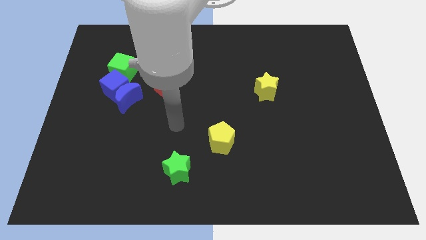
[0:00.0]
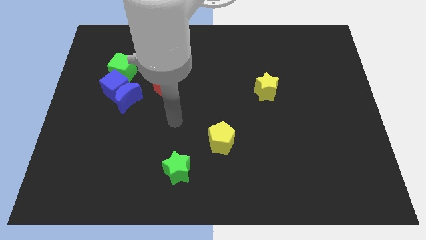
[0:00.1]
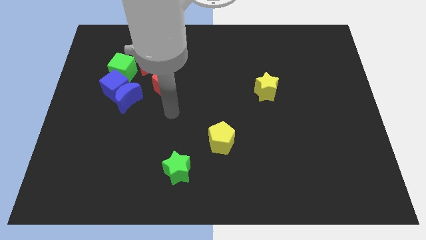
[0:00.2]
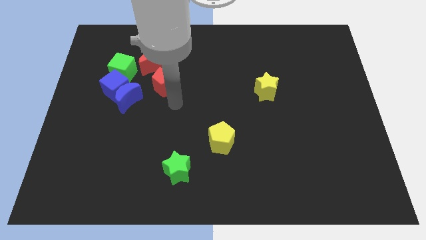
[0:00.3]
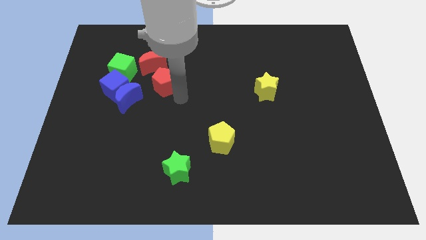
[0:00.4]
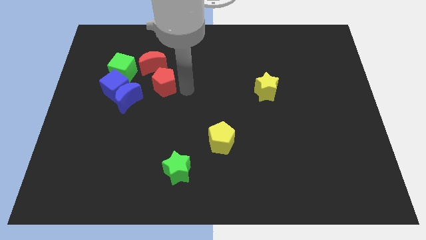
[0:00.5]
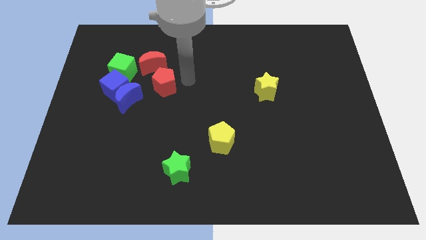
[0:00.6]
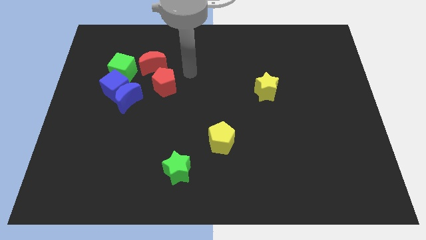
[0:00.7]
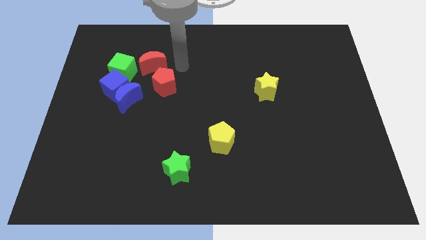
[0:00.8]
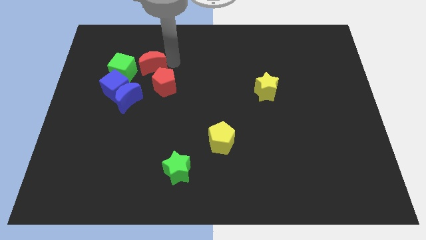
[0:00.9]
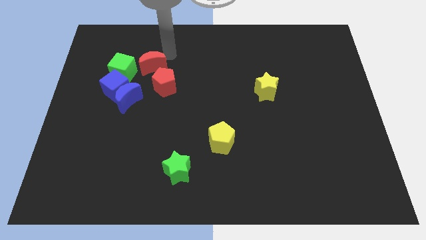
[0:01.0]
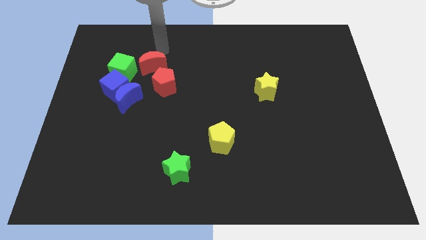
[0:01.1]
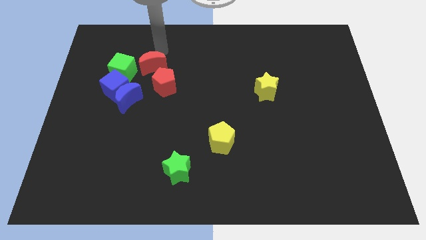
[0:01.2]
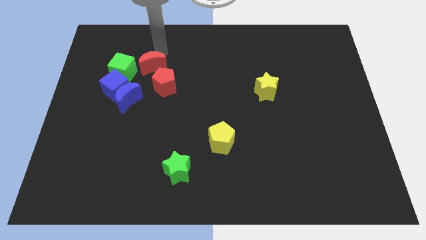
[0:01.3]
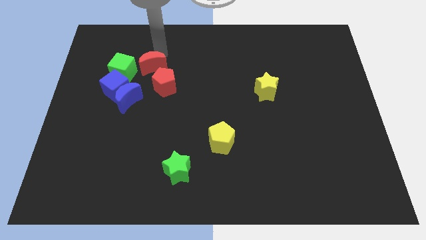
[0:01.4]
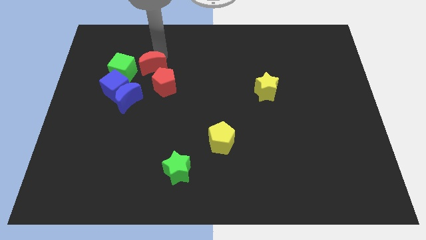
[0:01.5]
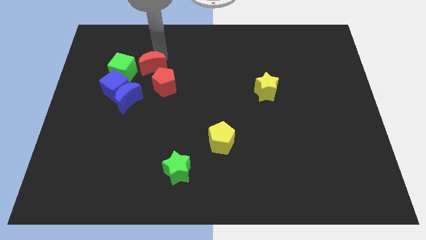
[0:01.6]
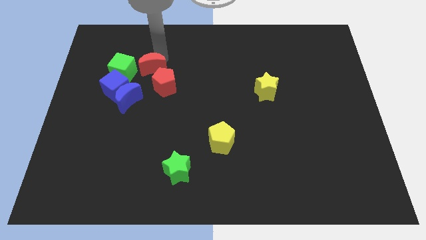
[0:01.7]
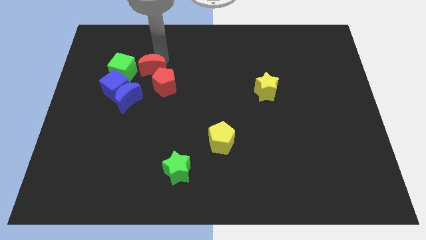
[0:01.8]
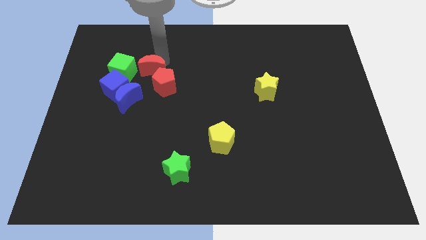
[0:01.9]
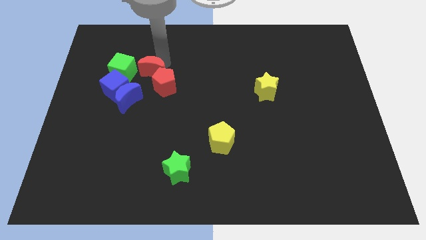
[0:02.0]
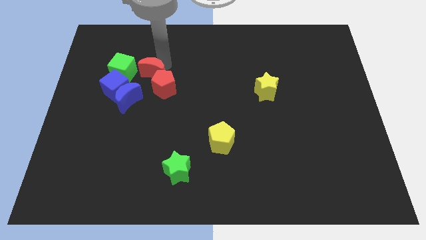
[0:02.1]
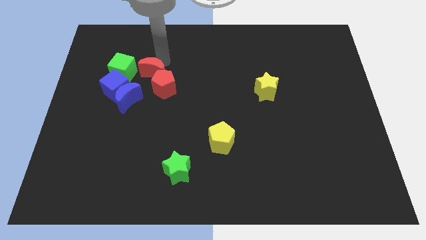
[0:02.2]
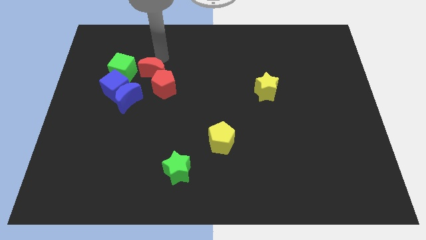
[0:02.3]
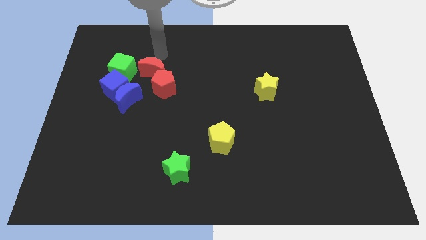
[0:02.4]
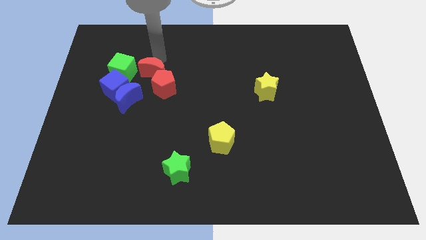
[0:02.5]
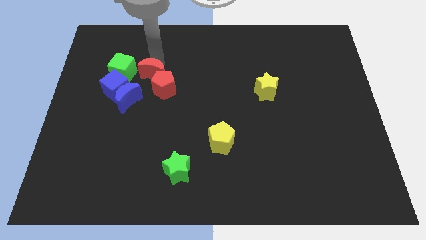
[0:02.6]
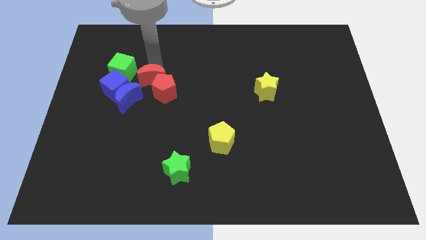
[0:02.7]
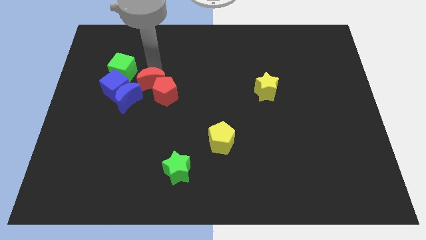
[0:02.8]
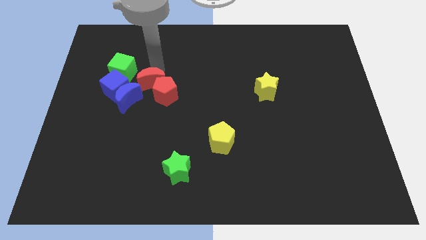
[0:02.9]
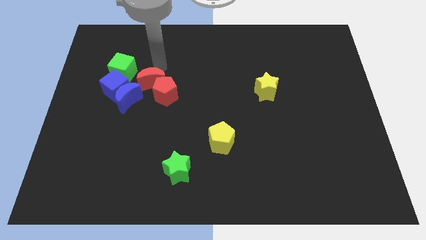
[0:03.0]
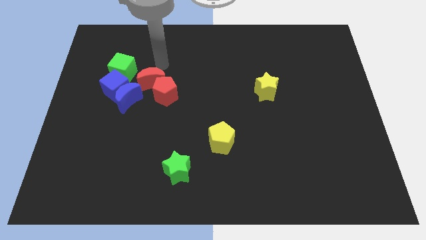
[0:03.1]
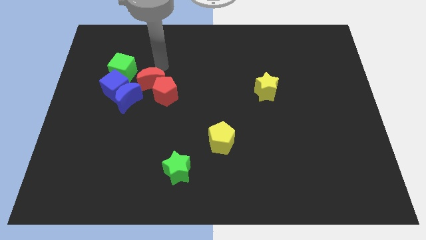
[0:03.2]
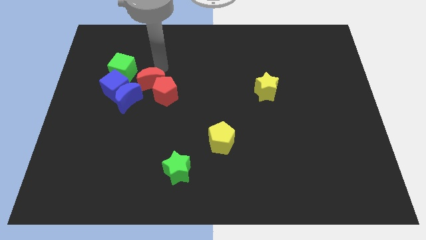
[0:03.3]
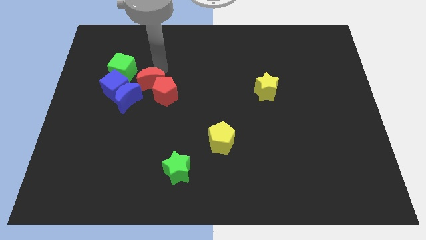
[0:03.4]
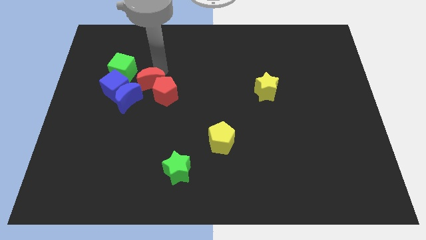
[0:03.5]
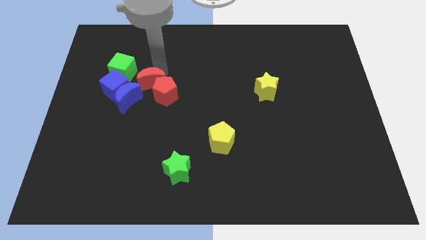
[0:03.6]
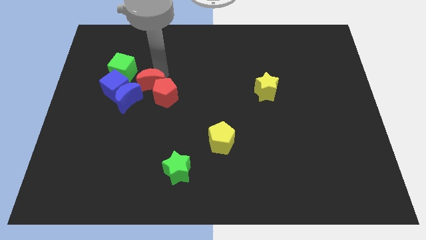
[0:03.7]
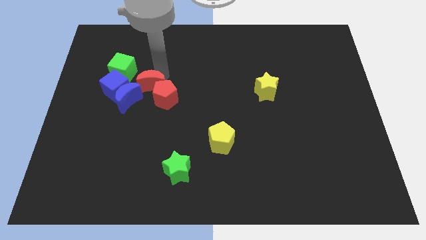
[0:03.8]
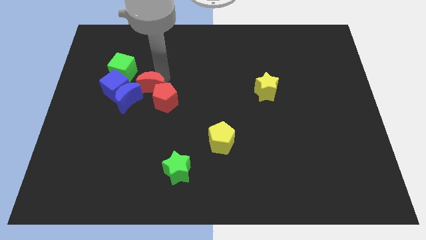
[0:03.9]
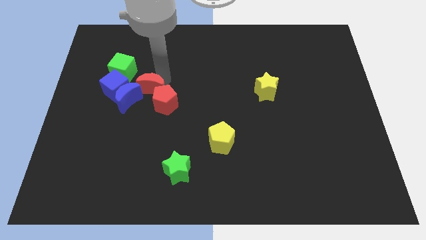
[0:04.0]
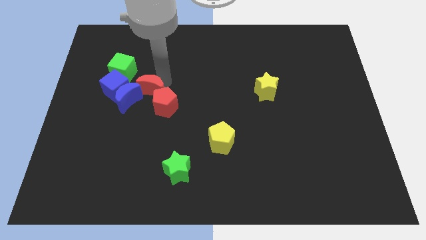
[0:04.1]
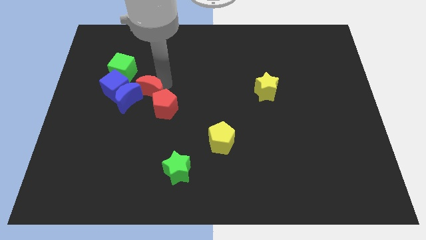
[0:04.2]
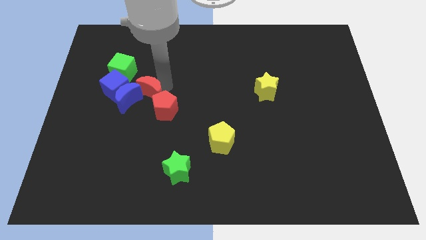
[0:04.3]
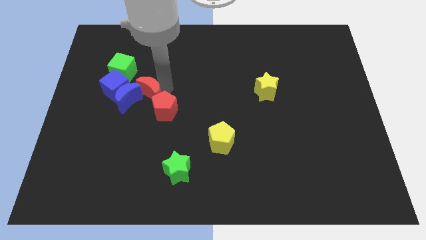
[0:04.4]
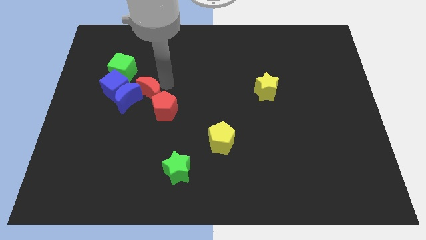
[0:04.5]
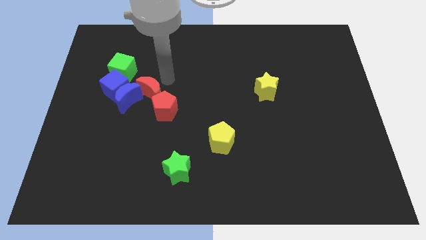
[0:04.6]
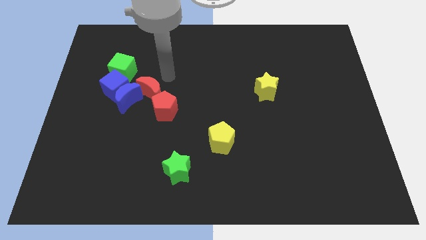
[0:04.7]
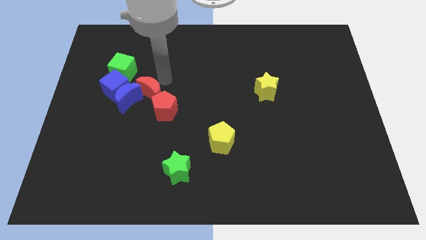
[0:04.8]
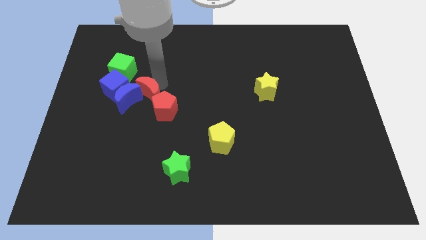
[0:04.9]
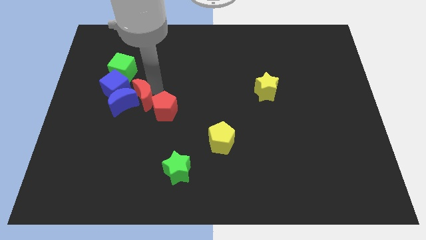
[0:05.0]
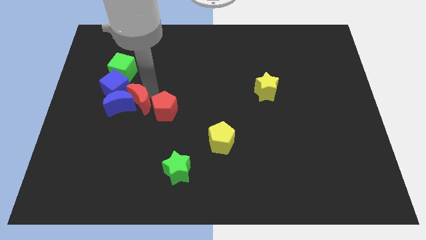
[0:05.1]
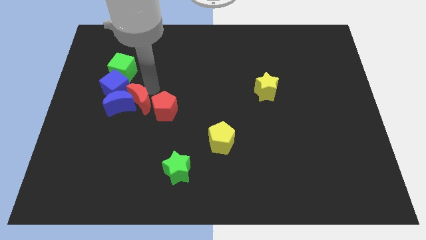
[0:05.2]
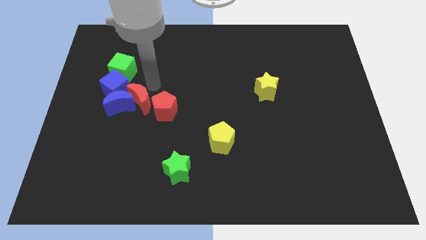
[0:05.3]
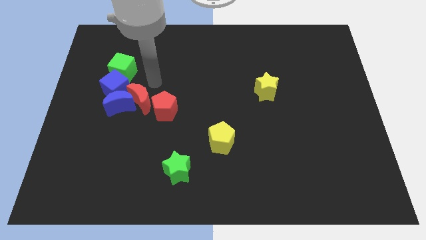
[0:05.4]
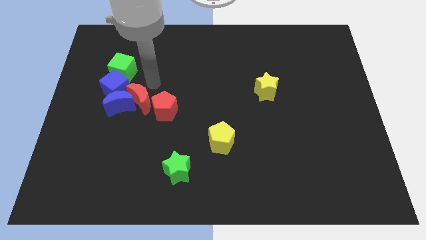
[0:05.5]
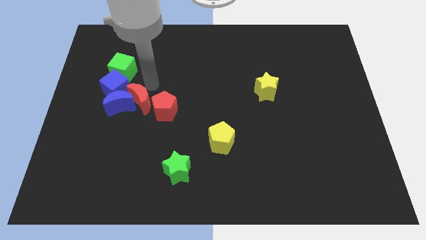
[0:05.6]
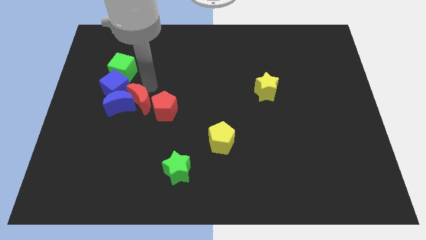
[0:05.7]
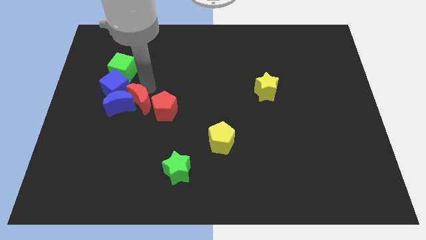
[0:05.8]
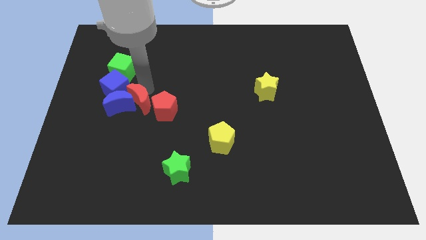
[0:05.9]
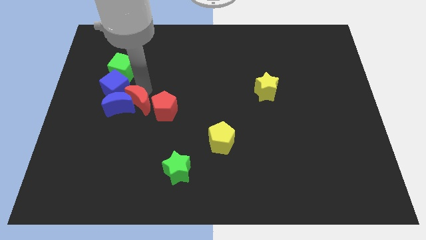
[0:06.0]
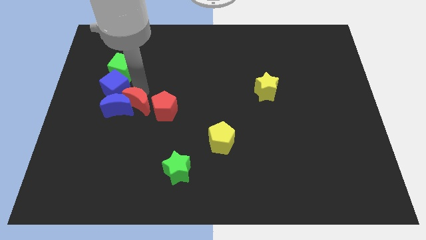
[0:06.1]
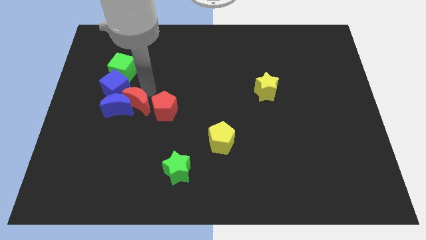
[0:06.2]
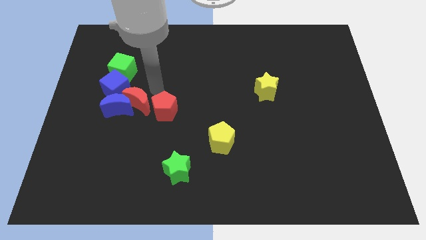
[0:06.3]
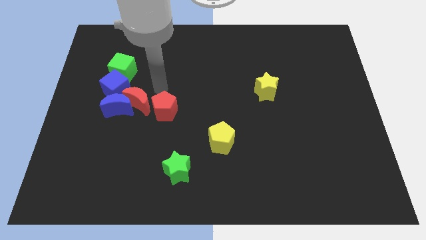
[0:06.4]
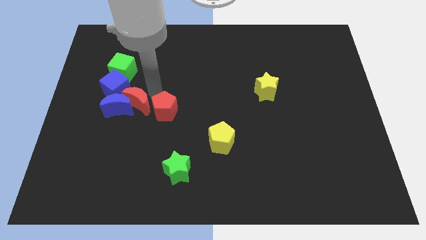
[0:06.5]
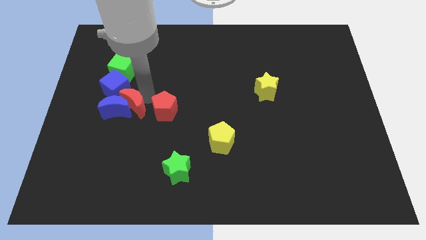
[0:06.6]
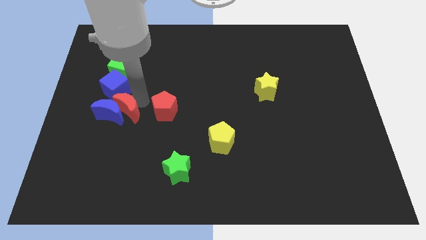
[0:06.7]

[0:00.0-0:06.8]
slide the red moon below the blue cube

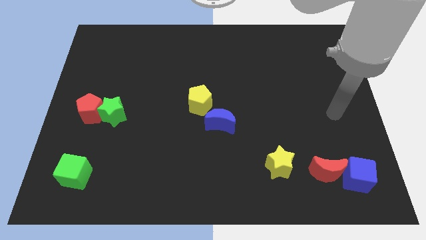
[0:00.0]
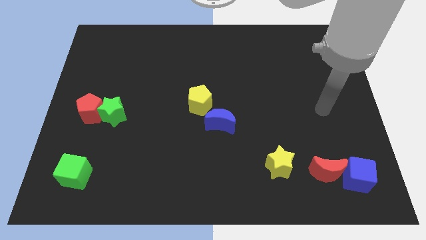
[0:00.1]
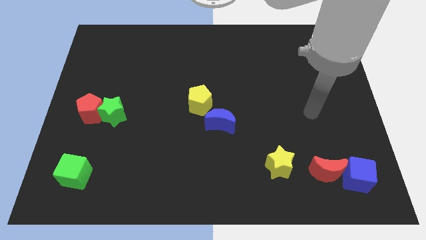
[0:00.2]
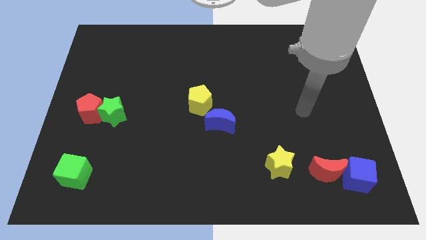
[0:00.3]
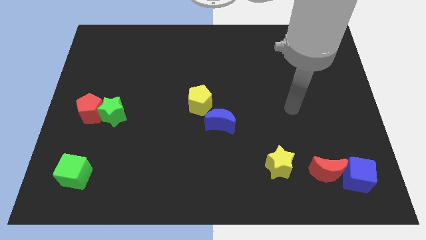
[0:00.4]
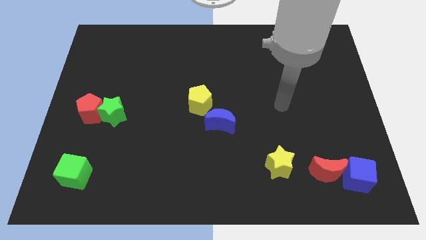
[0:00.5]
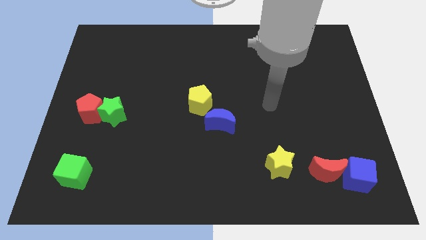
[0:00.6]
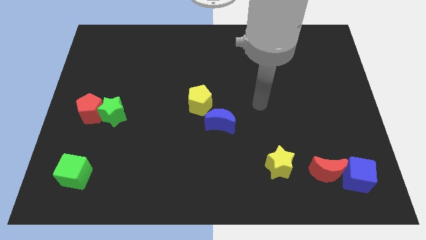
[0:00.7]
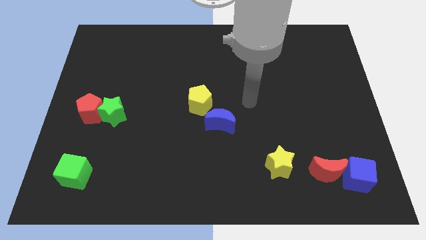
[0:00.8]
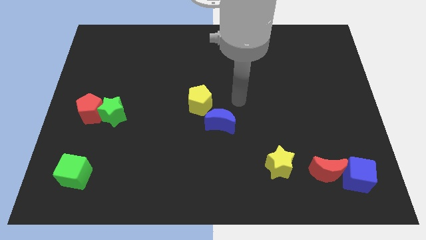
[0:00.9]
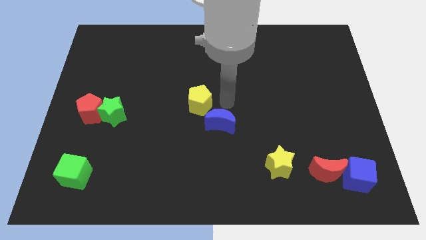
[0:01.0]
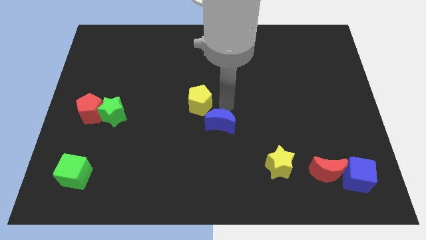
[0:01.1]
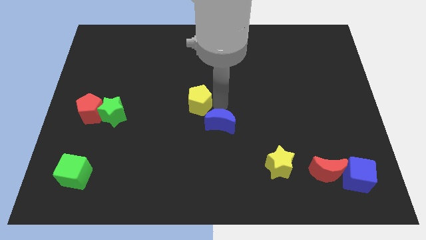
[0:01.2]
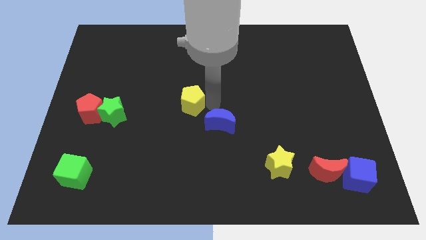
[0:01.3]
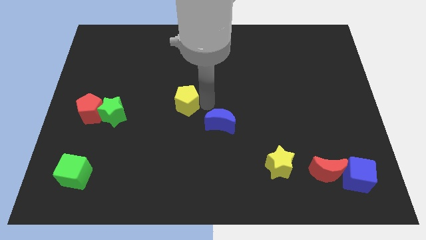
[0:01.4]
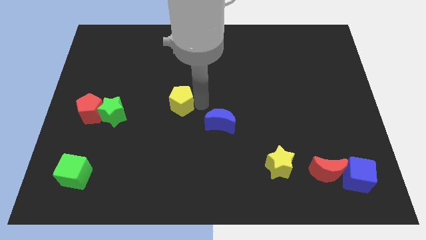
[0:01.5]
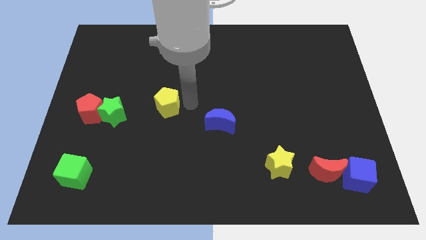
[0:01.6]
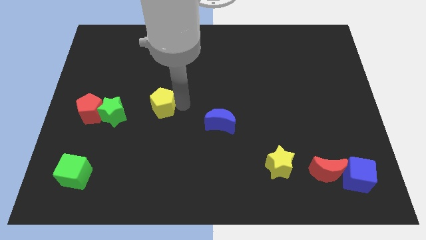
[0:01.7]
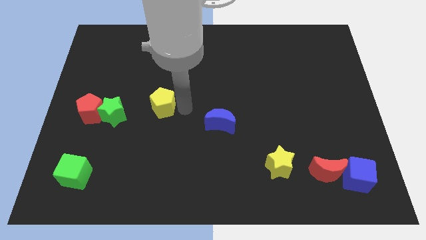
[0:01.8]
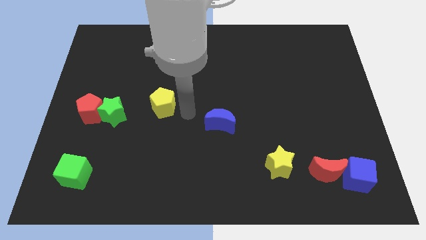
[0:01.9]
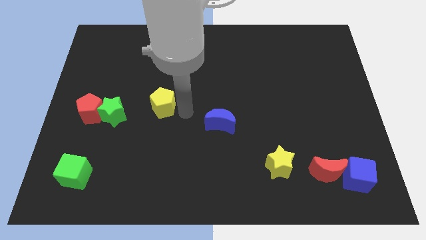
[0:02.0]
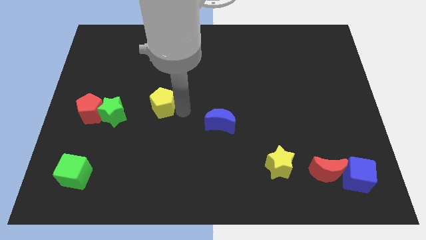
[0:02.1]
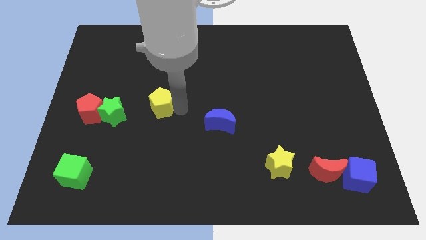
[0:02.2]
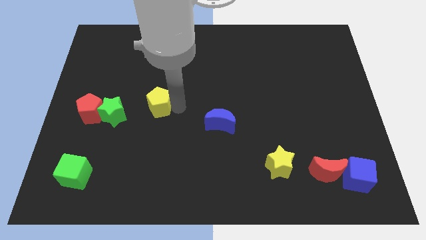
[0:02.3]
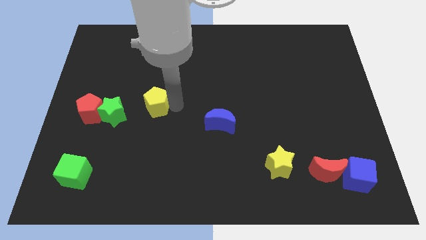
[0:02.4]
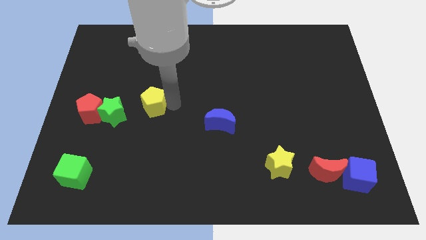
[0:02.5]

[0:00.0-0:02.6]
put the yellow pentagon diagonally up and to the right of the green star
